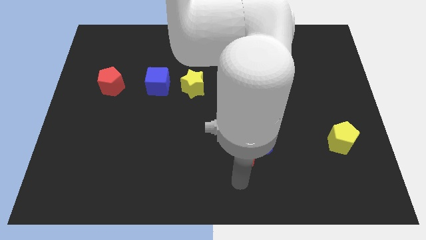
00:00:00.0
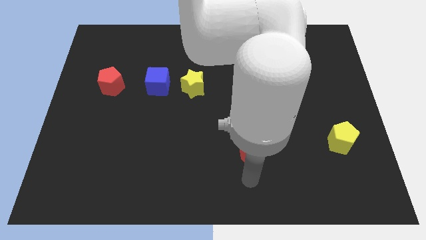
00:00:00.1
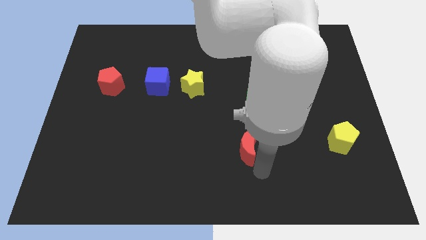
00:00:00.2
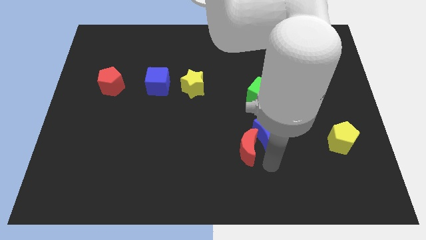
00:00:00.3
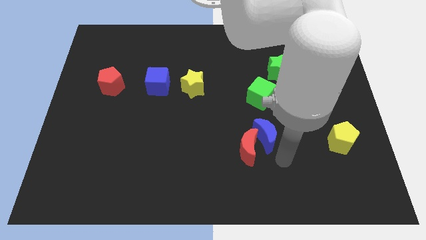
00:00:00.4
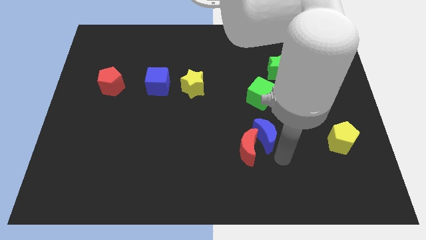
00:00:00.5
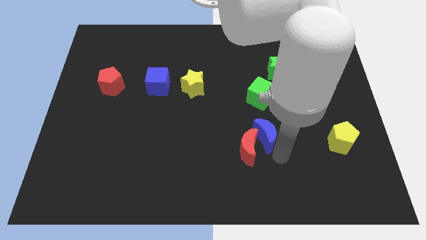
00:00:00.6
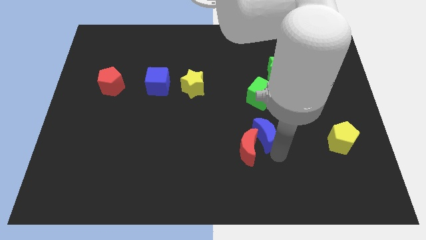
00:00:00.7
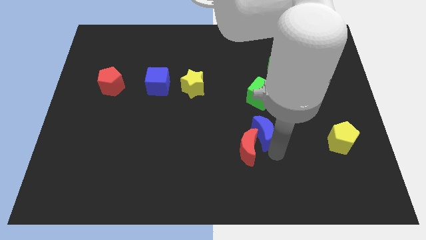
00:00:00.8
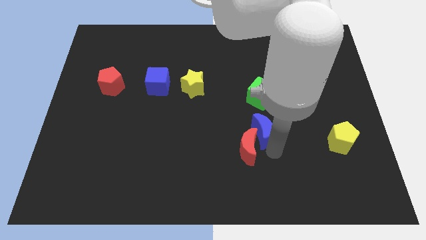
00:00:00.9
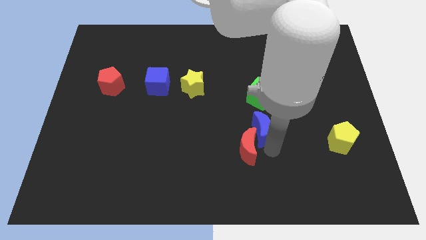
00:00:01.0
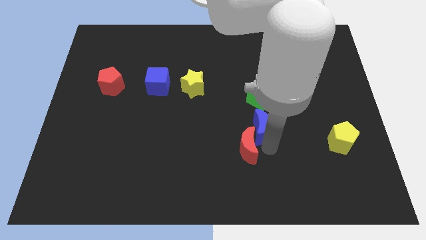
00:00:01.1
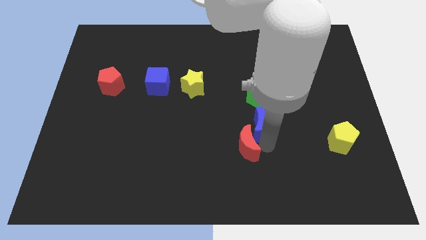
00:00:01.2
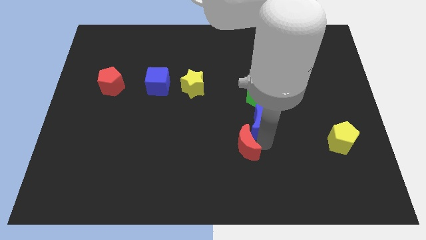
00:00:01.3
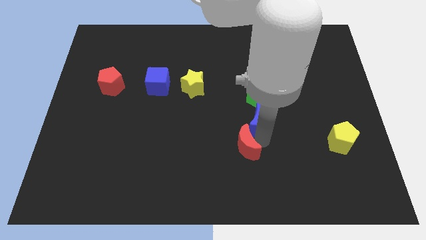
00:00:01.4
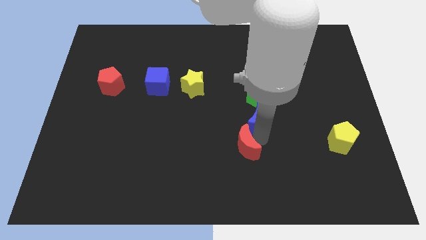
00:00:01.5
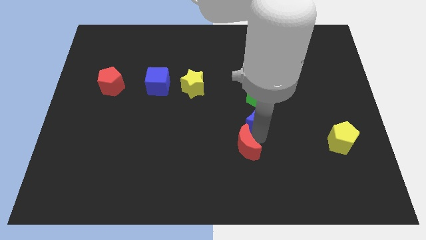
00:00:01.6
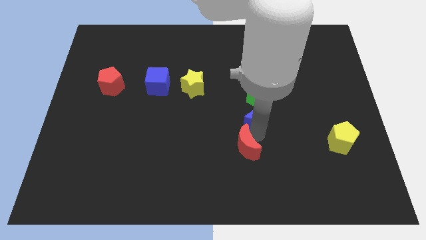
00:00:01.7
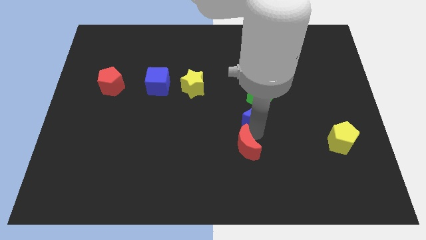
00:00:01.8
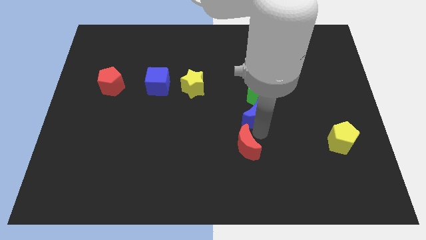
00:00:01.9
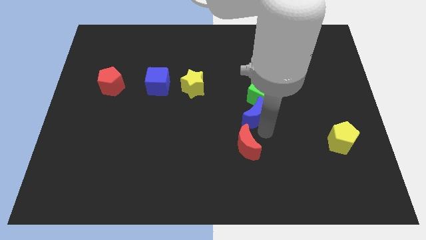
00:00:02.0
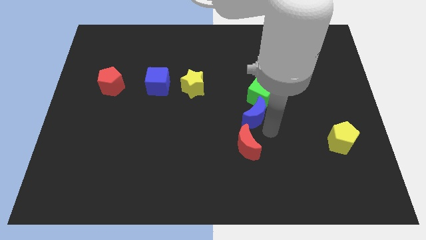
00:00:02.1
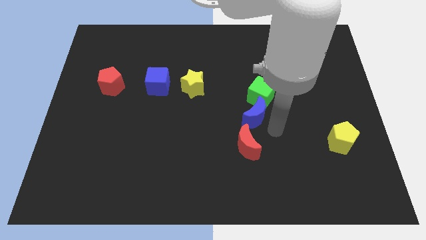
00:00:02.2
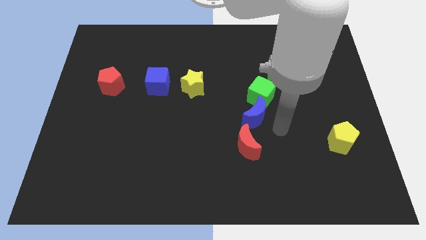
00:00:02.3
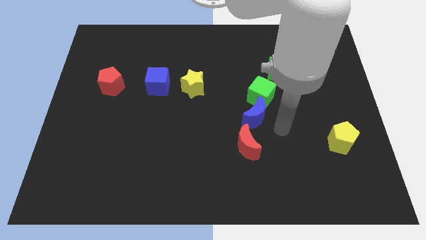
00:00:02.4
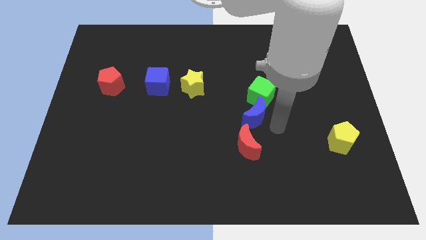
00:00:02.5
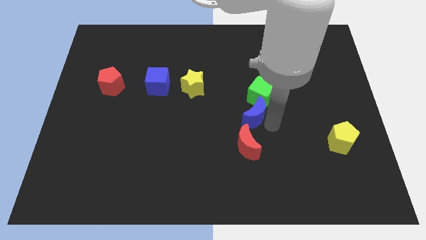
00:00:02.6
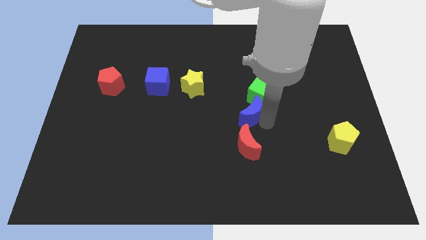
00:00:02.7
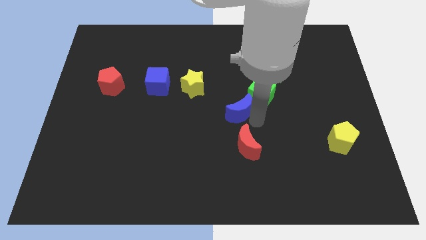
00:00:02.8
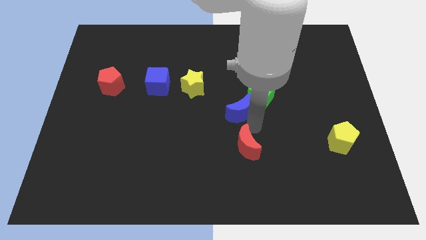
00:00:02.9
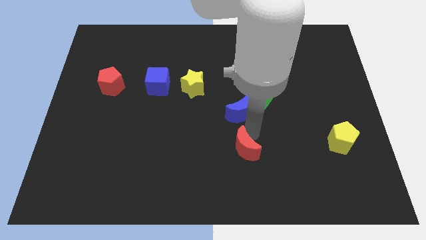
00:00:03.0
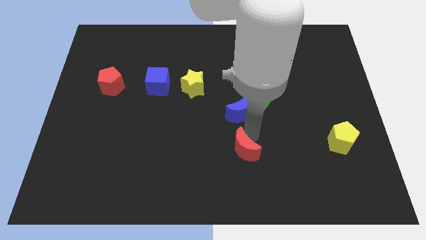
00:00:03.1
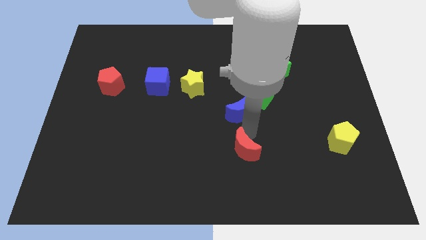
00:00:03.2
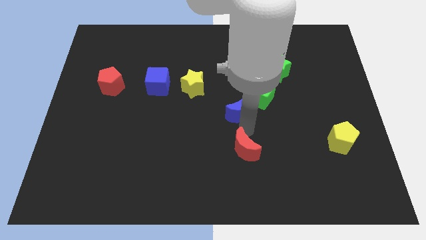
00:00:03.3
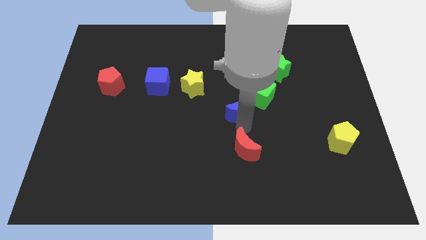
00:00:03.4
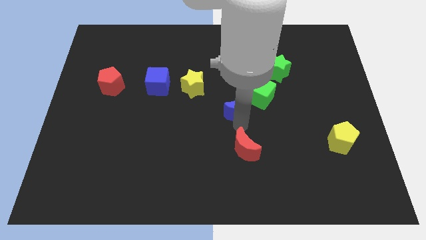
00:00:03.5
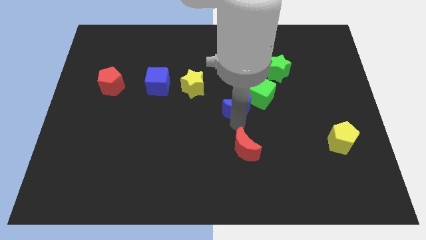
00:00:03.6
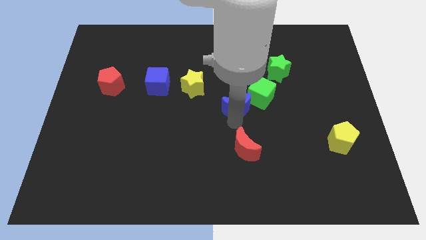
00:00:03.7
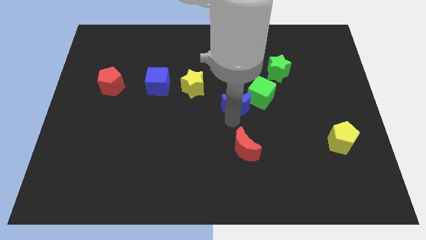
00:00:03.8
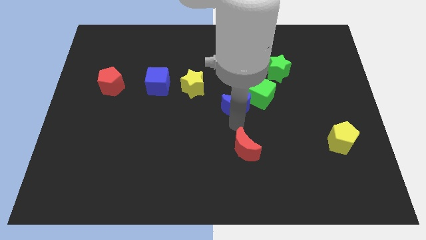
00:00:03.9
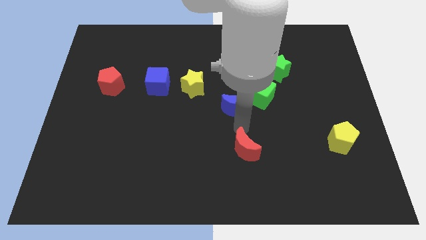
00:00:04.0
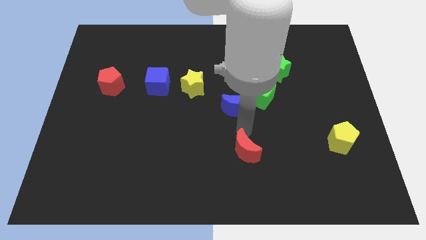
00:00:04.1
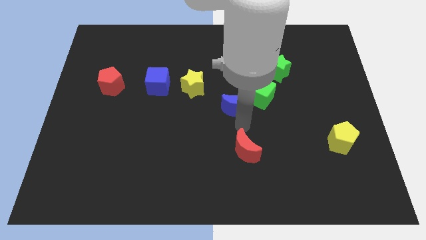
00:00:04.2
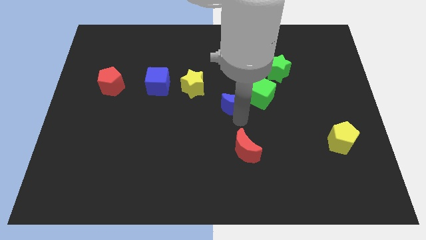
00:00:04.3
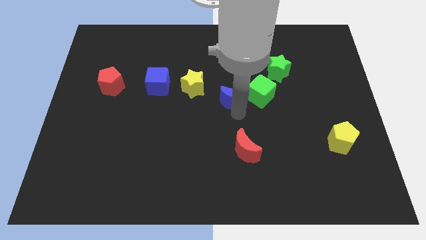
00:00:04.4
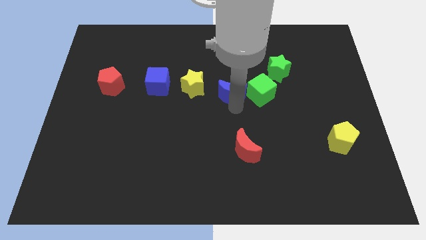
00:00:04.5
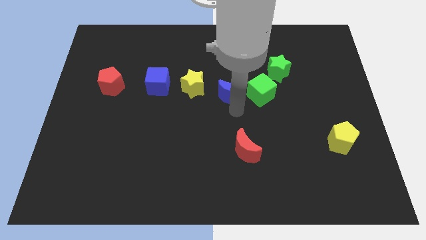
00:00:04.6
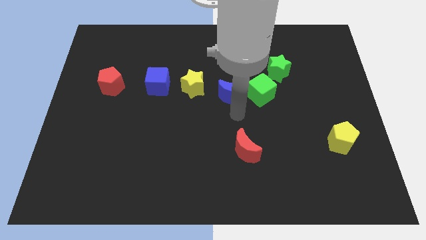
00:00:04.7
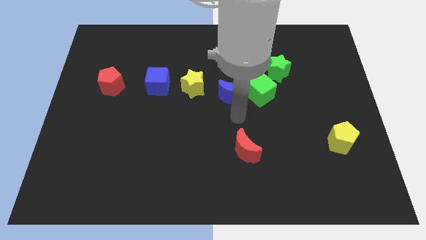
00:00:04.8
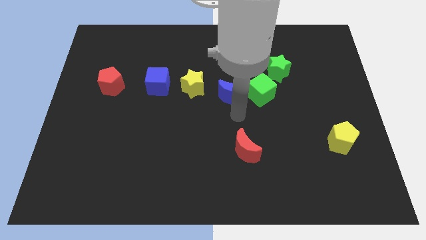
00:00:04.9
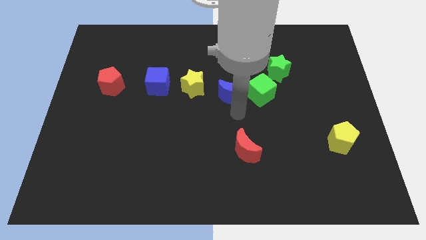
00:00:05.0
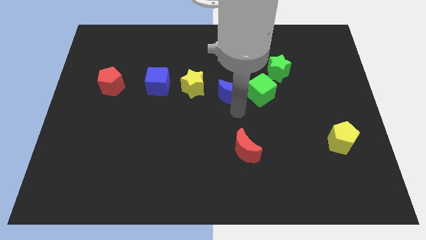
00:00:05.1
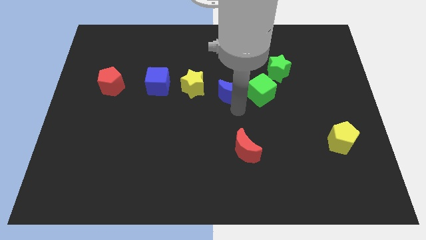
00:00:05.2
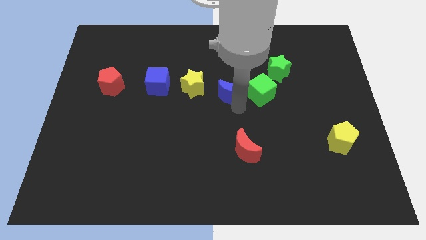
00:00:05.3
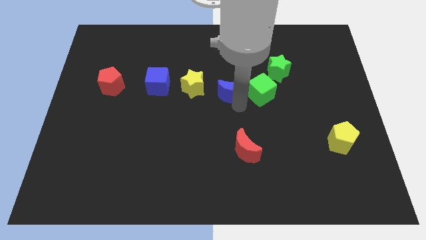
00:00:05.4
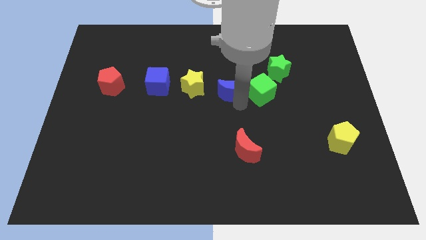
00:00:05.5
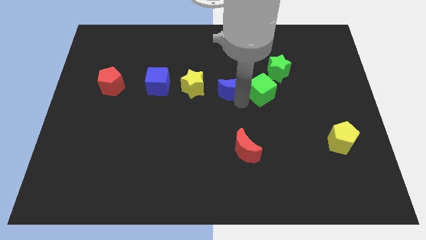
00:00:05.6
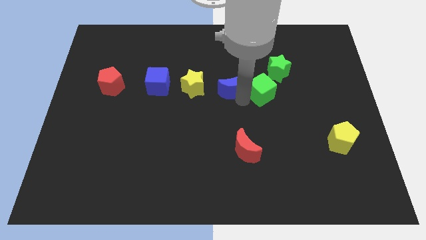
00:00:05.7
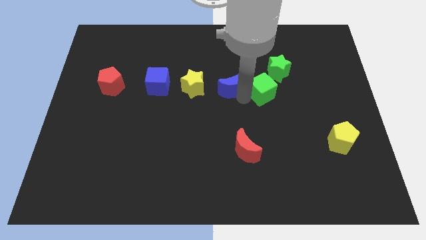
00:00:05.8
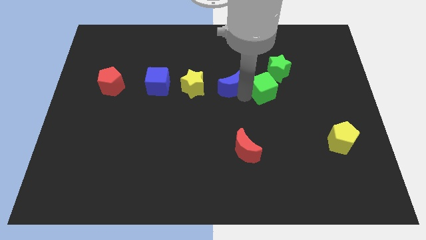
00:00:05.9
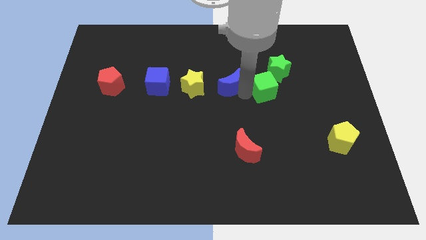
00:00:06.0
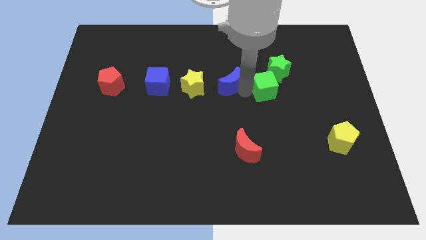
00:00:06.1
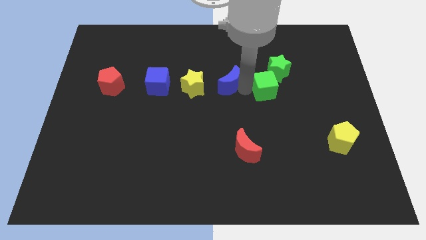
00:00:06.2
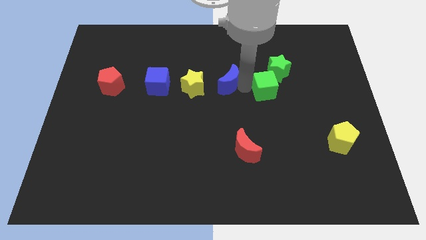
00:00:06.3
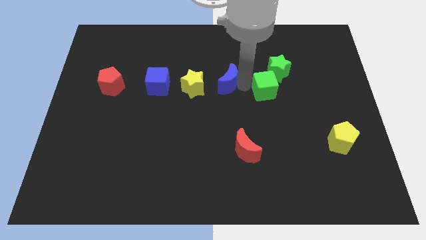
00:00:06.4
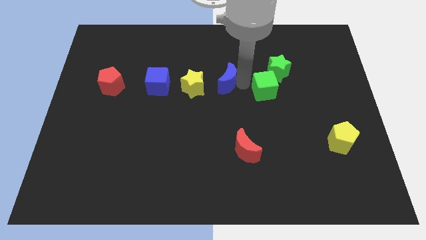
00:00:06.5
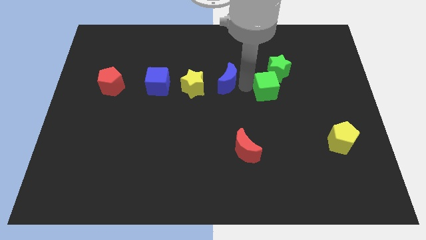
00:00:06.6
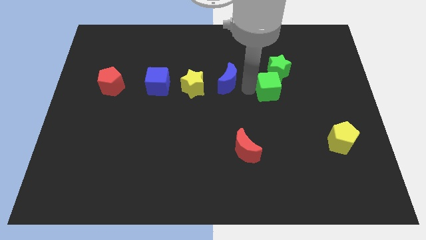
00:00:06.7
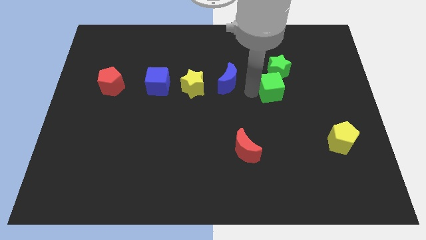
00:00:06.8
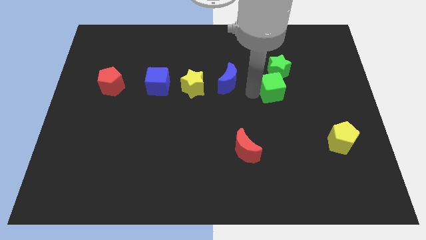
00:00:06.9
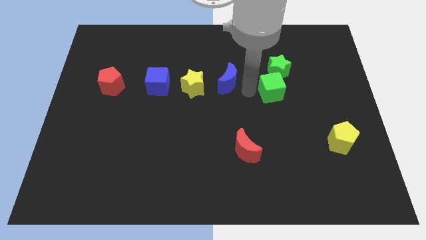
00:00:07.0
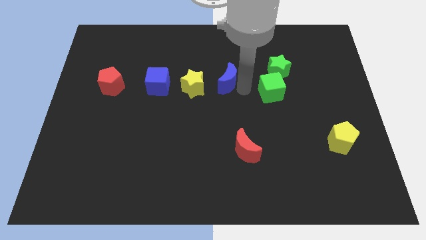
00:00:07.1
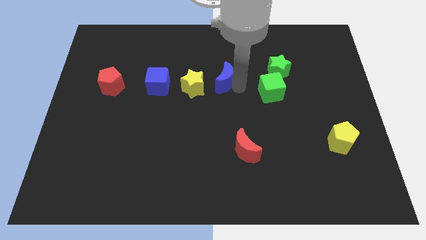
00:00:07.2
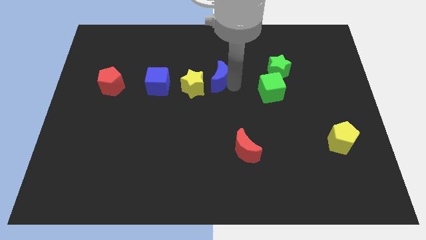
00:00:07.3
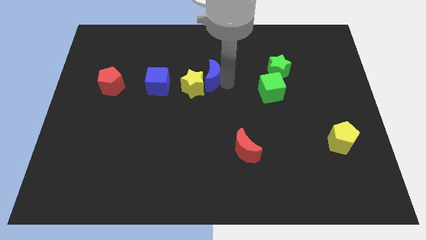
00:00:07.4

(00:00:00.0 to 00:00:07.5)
slide the blue moon diagonally up and left

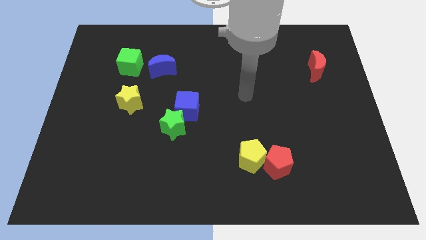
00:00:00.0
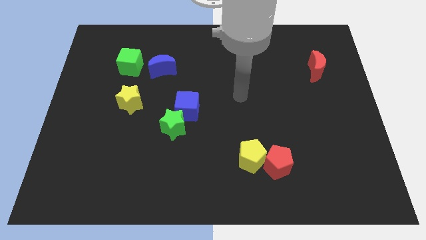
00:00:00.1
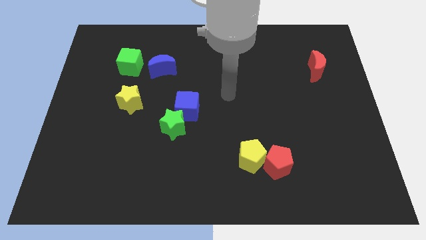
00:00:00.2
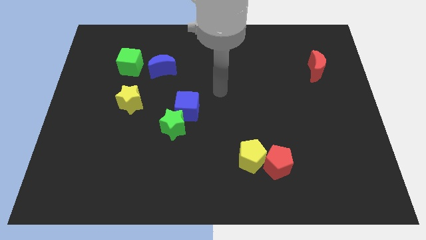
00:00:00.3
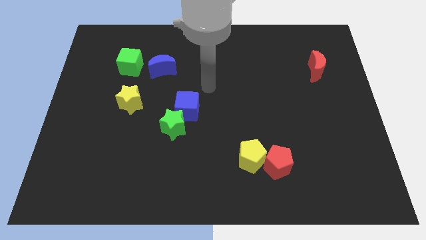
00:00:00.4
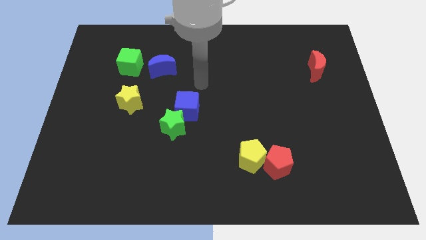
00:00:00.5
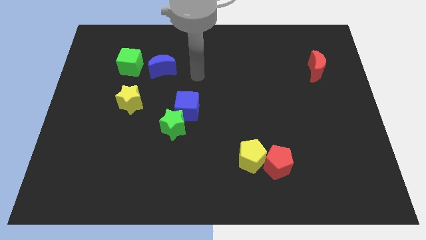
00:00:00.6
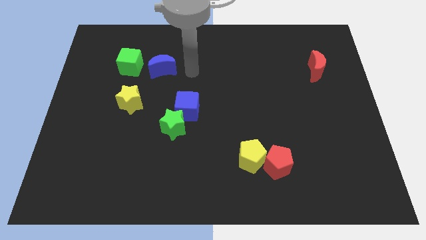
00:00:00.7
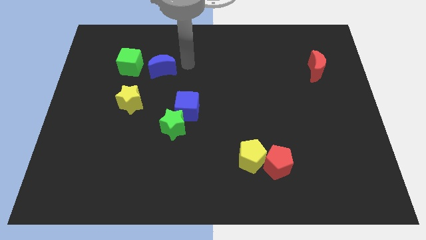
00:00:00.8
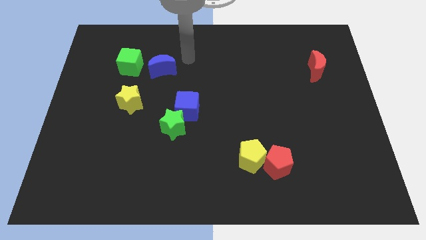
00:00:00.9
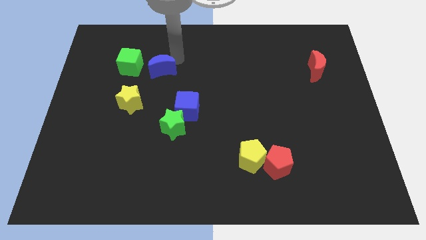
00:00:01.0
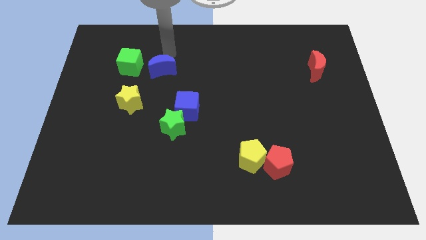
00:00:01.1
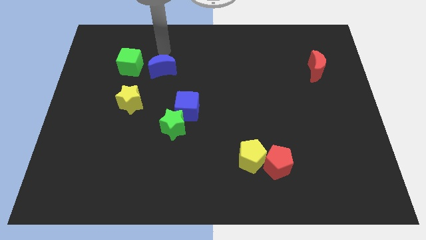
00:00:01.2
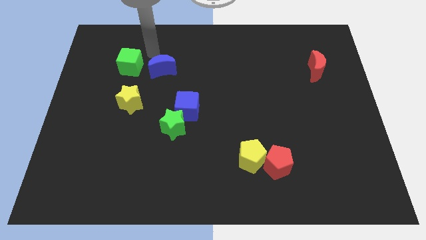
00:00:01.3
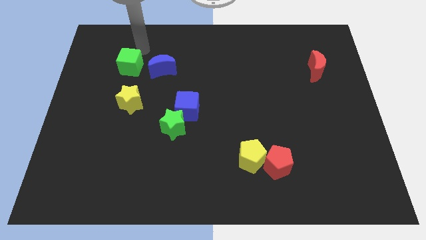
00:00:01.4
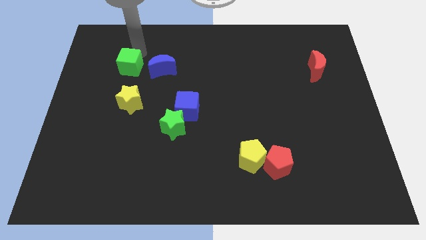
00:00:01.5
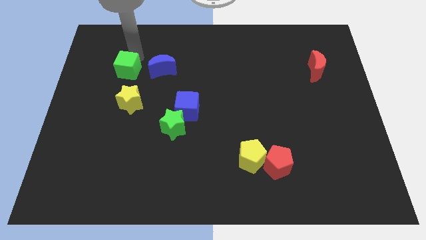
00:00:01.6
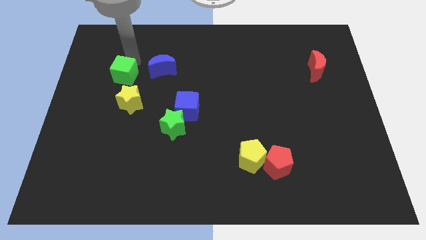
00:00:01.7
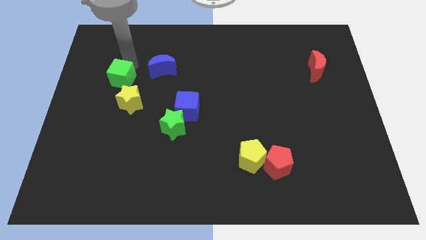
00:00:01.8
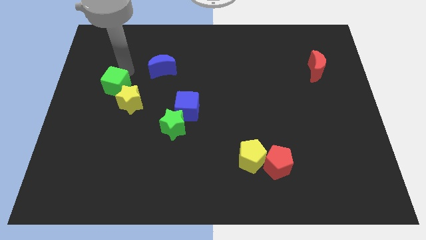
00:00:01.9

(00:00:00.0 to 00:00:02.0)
slightly push the green cube down
